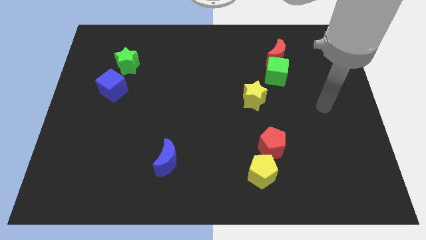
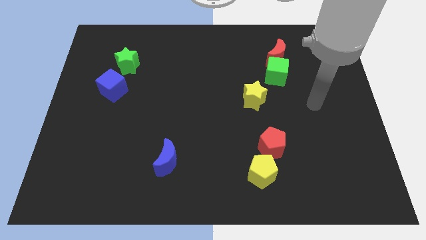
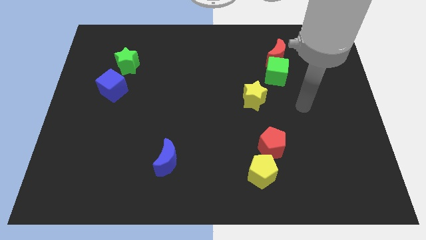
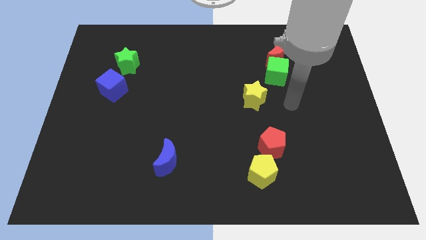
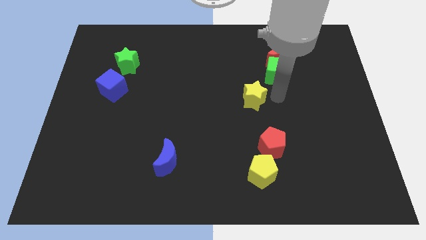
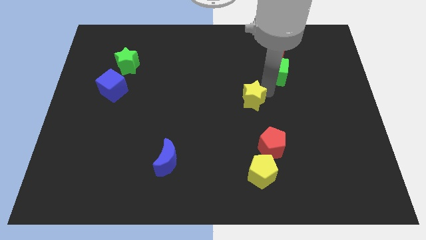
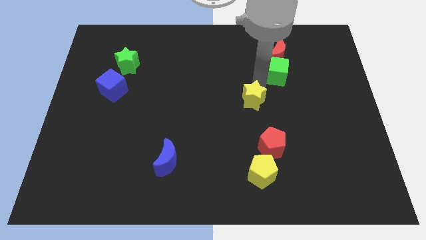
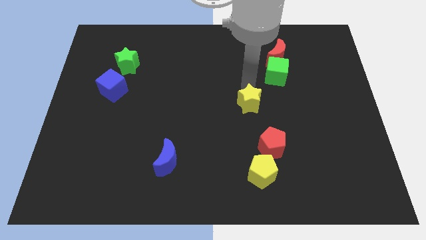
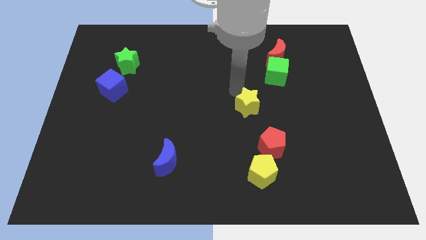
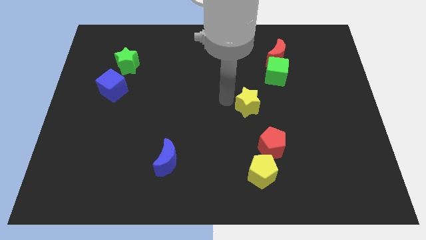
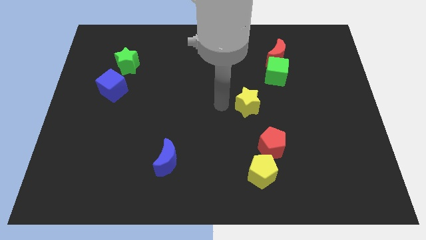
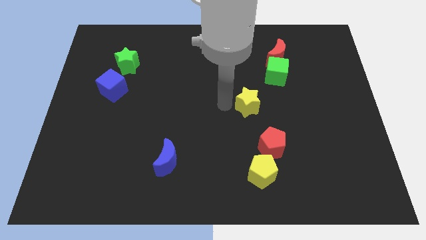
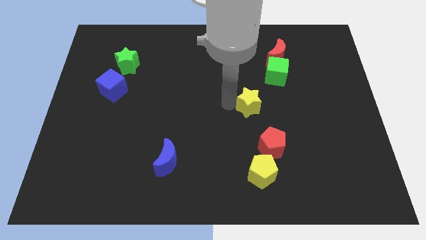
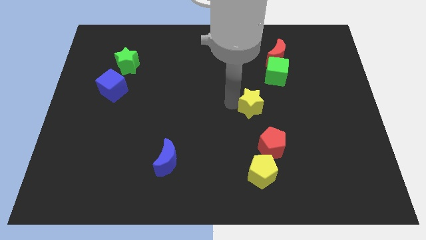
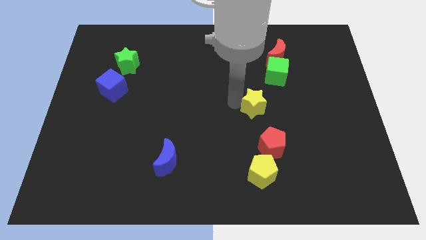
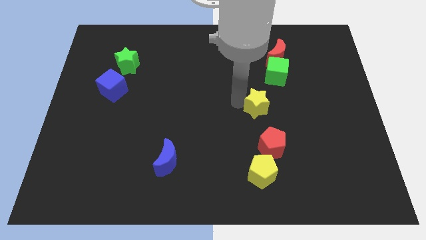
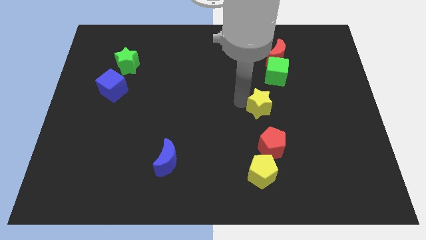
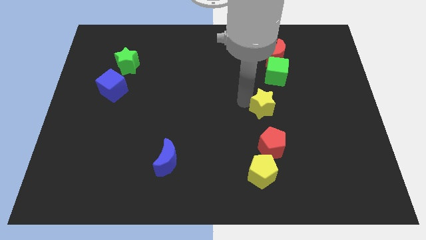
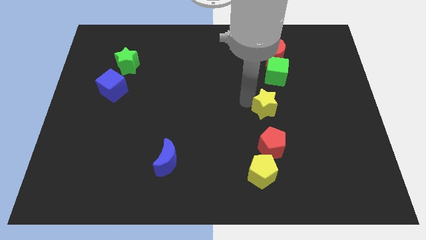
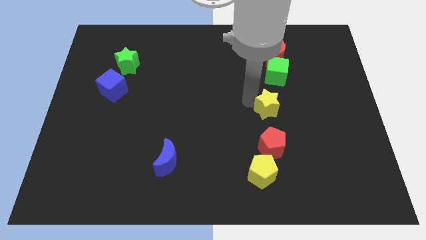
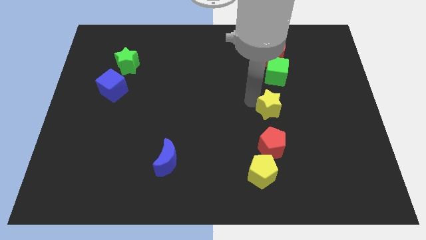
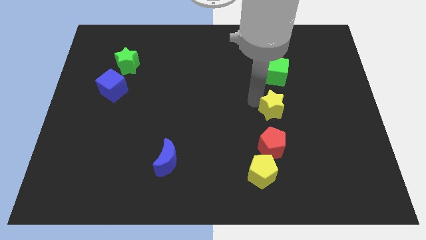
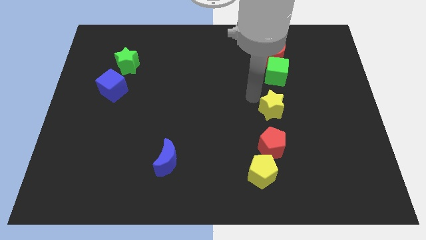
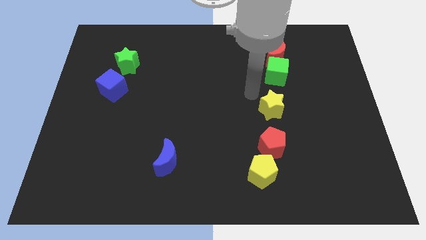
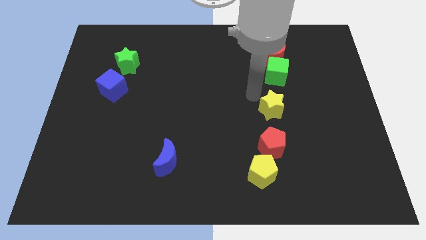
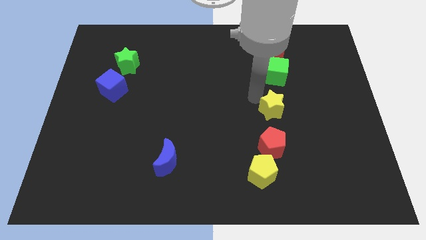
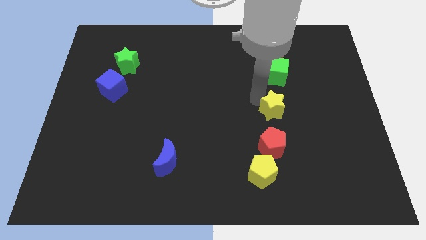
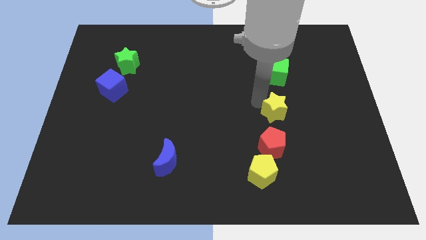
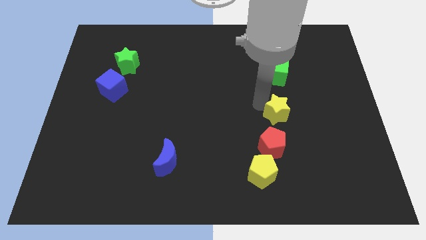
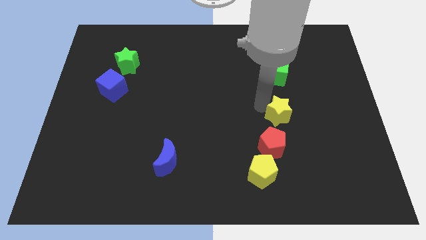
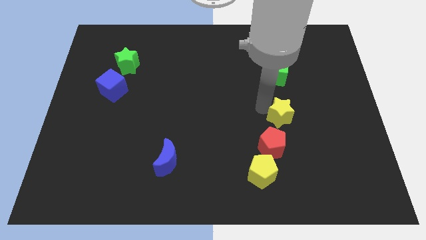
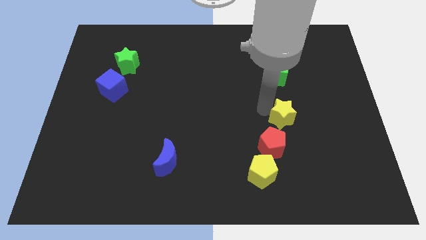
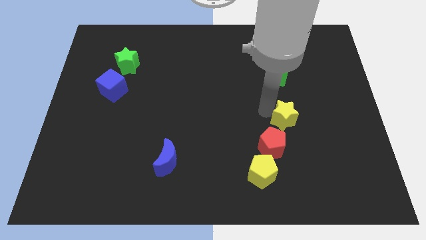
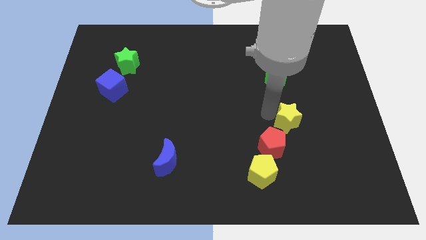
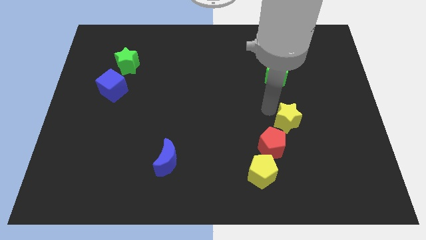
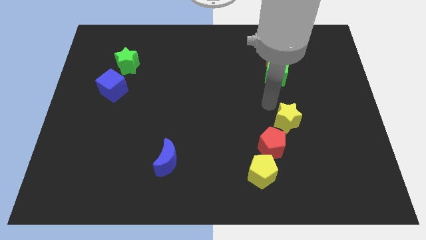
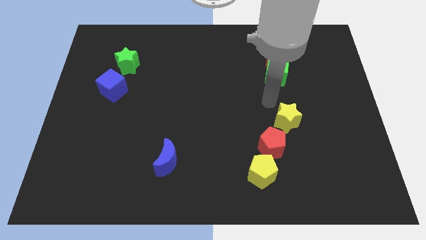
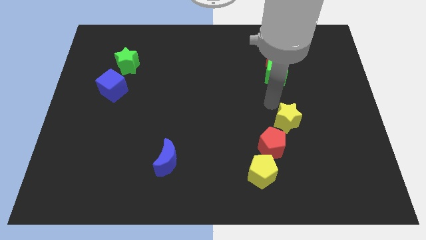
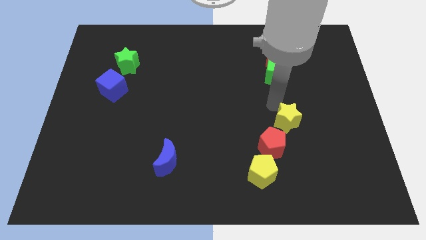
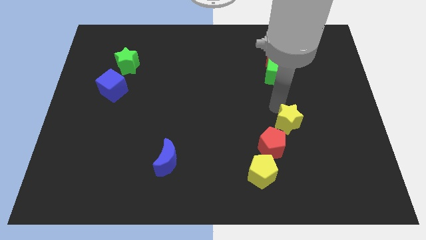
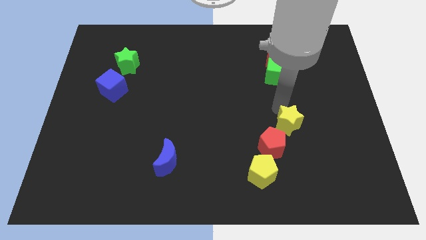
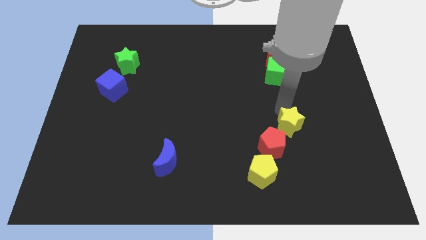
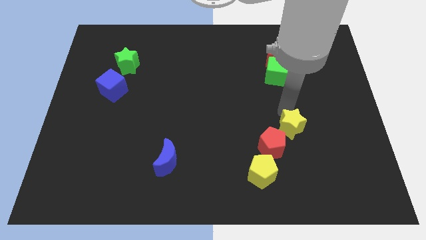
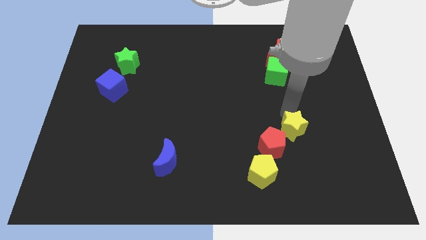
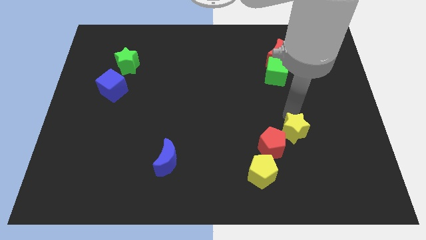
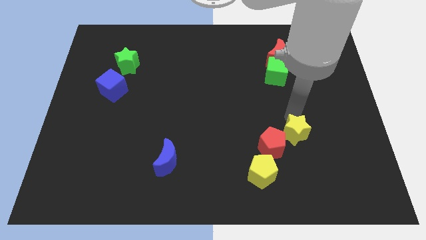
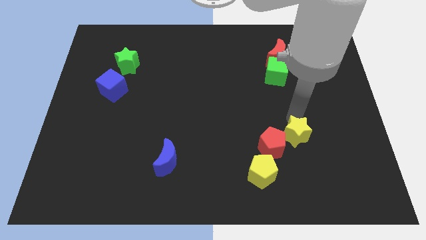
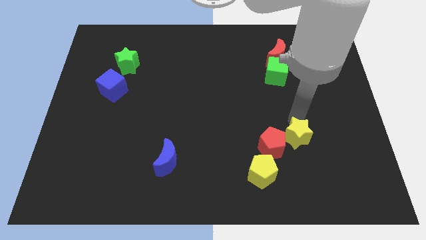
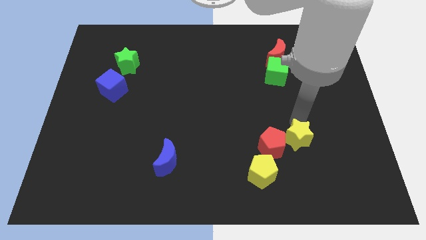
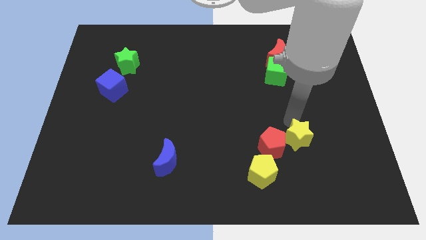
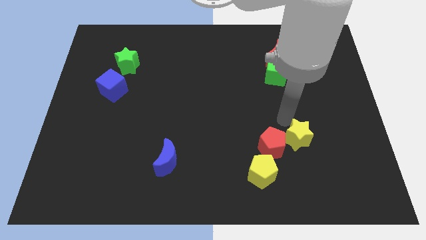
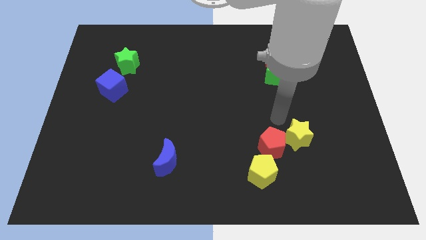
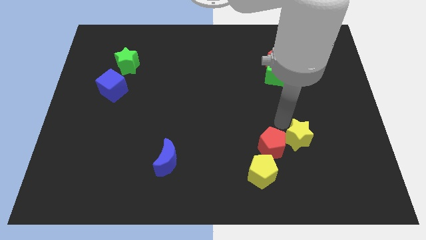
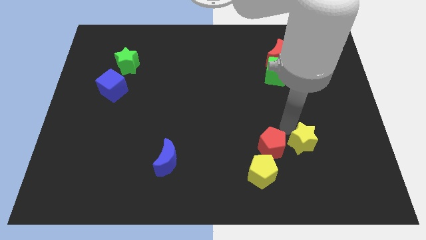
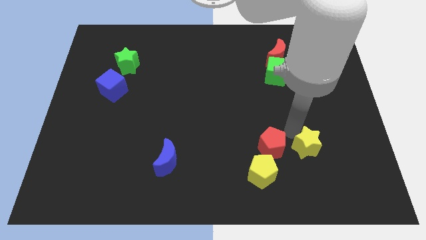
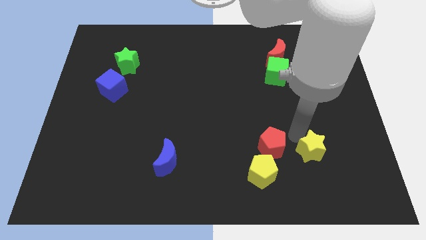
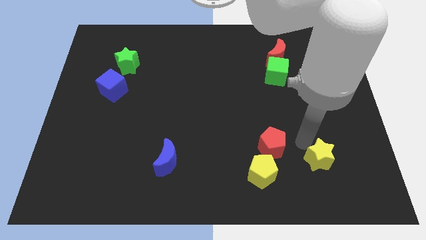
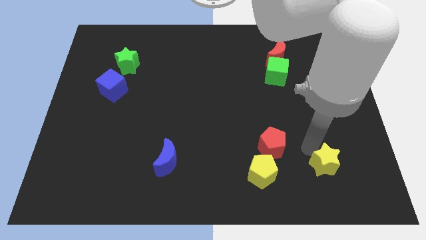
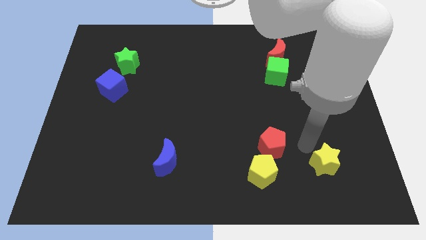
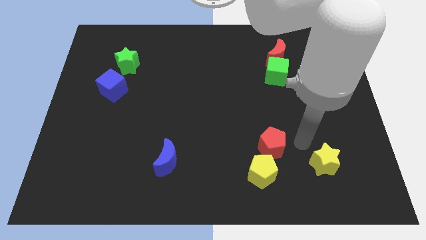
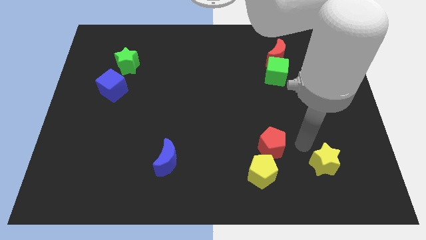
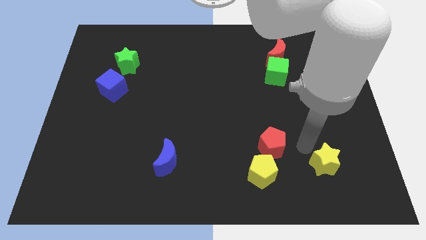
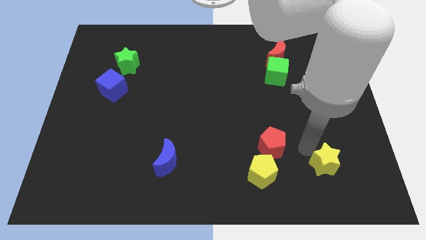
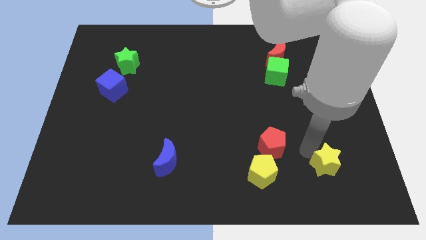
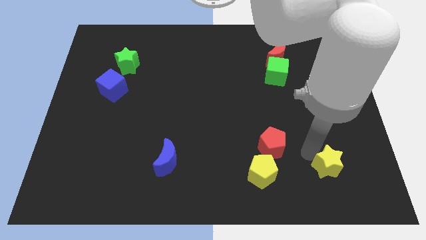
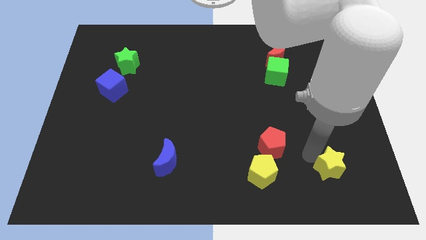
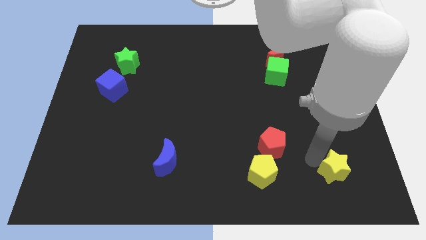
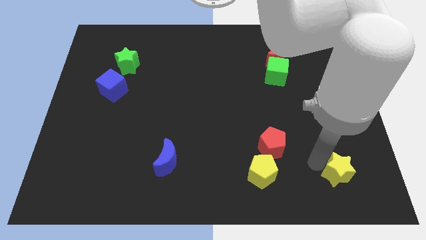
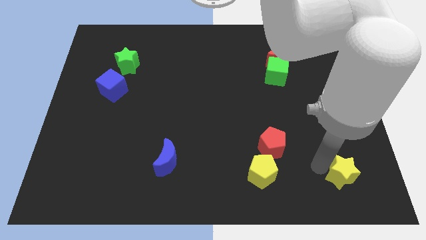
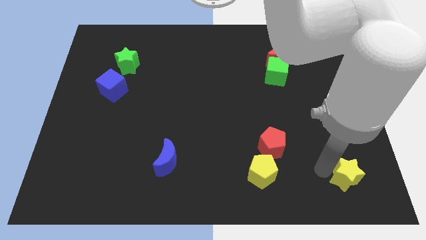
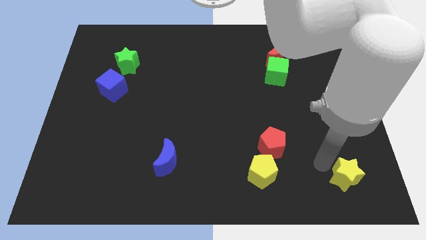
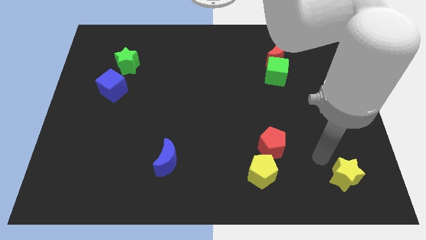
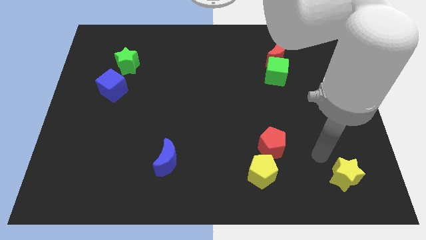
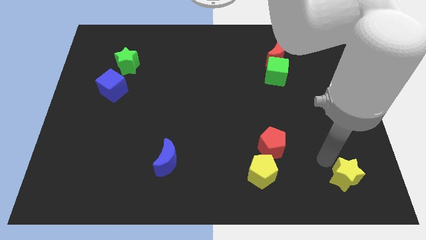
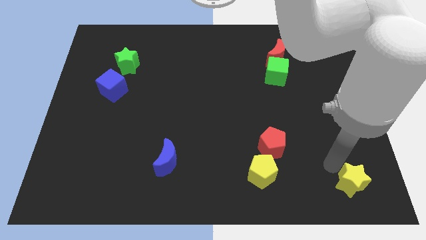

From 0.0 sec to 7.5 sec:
move the yellow star to the lower right corner
